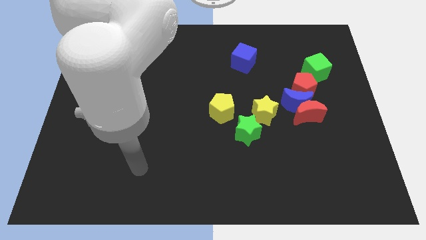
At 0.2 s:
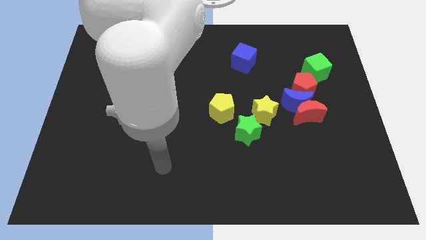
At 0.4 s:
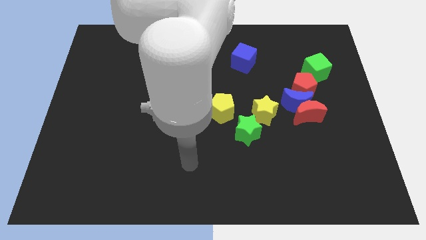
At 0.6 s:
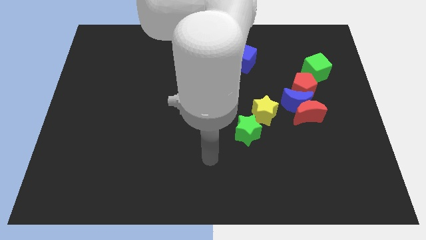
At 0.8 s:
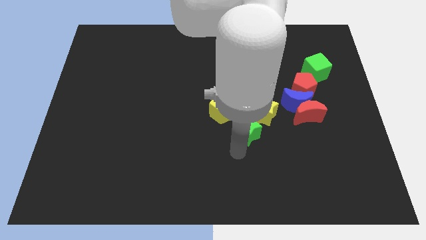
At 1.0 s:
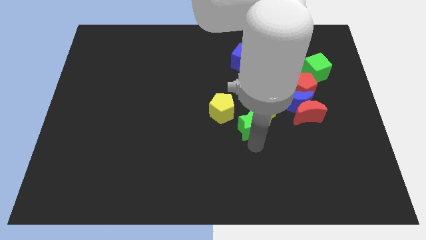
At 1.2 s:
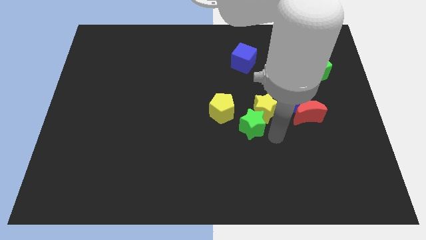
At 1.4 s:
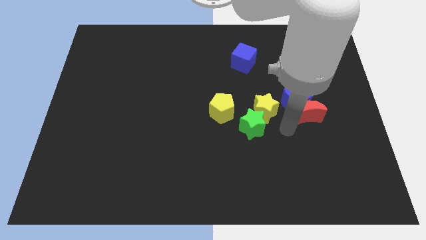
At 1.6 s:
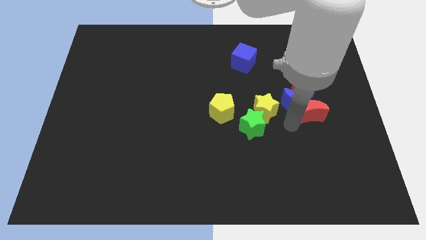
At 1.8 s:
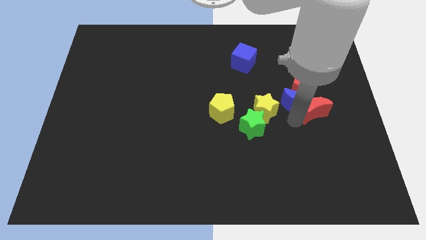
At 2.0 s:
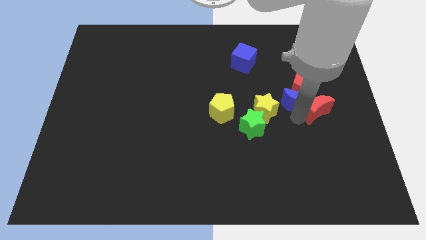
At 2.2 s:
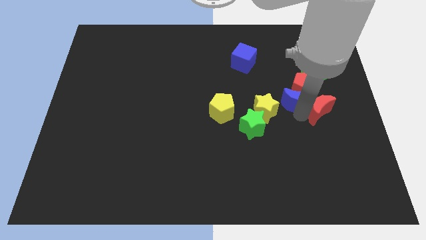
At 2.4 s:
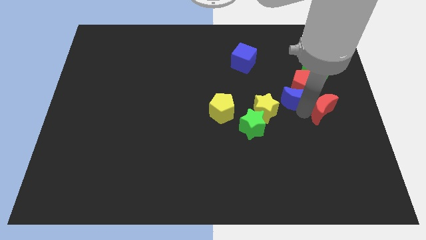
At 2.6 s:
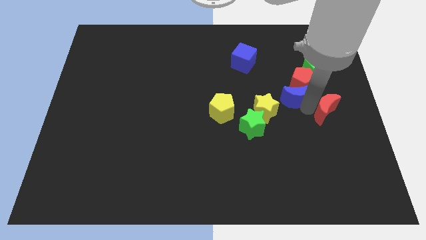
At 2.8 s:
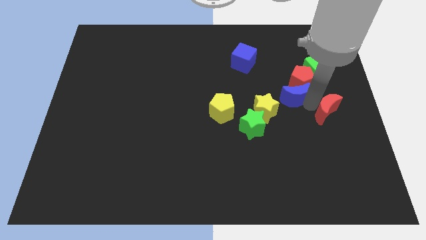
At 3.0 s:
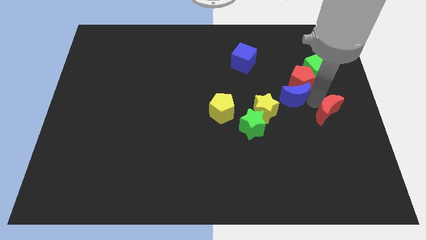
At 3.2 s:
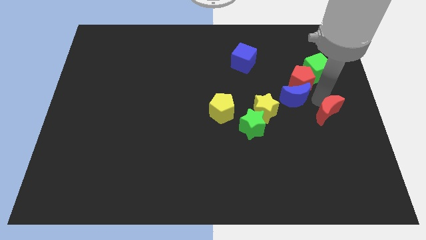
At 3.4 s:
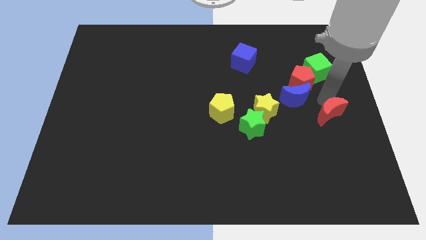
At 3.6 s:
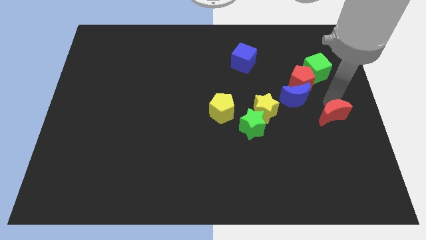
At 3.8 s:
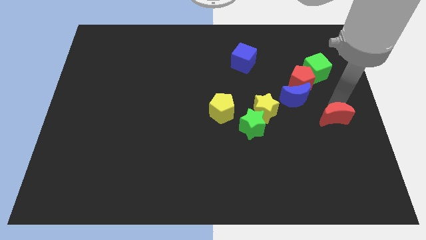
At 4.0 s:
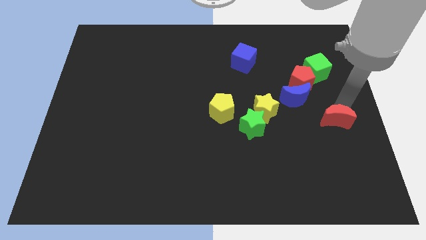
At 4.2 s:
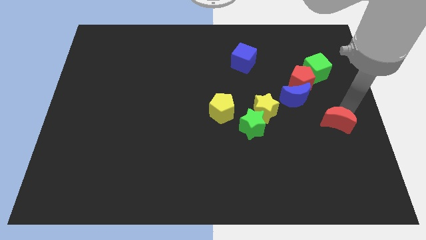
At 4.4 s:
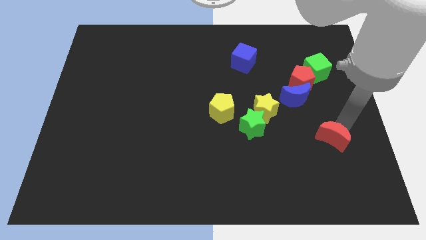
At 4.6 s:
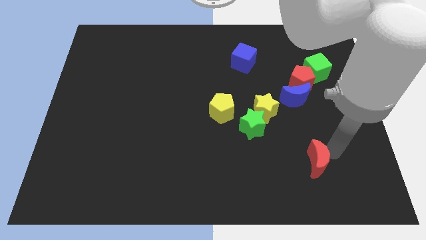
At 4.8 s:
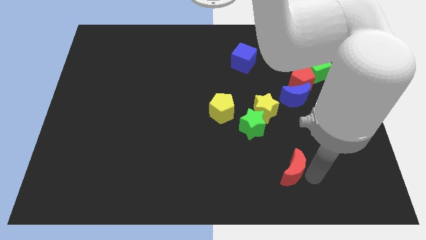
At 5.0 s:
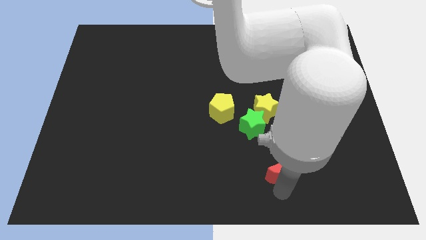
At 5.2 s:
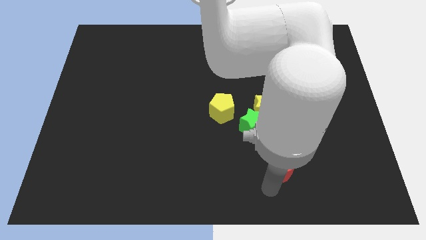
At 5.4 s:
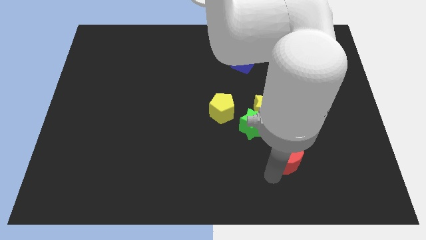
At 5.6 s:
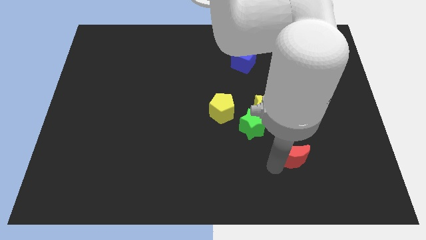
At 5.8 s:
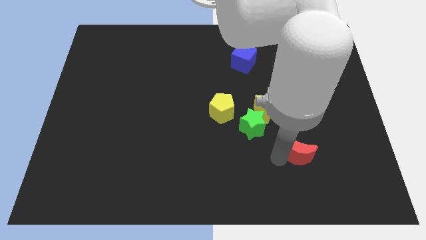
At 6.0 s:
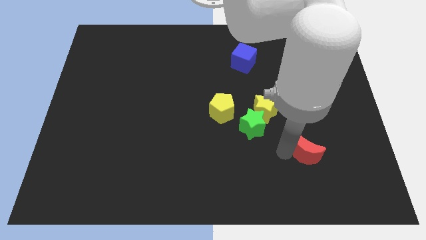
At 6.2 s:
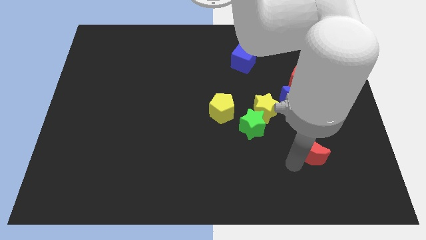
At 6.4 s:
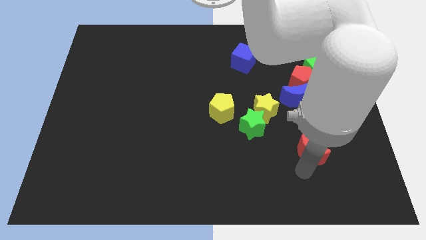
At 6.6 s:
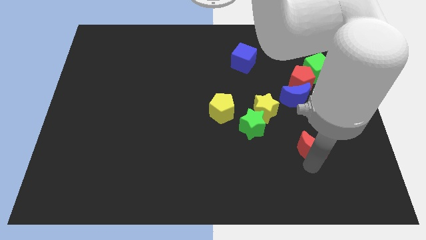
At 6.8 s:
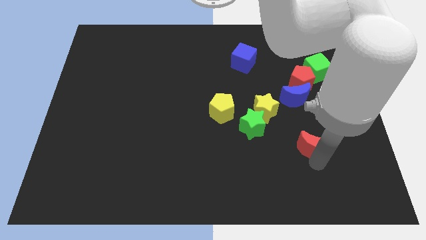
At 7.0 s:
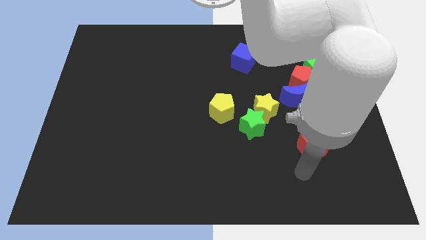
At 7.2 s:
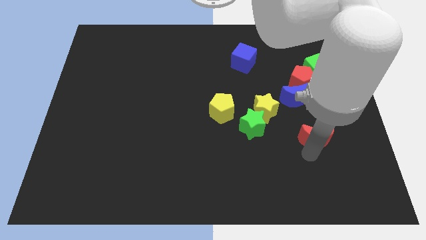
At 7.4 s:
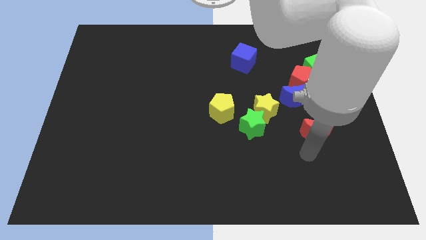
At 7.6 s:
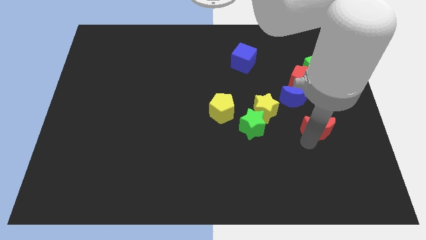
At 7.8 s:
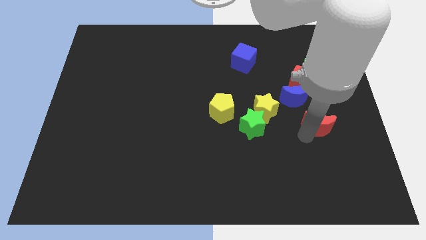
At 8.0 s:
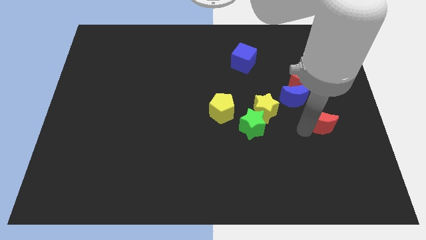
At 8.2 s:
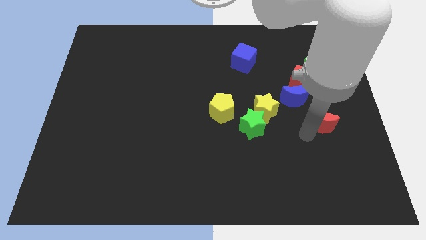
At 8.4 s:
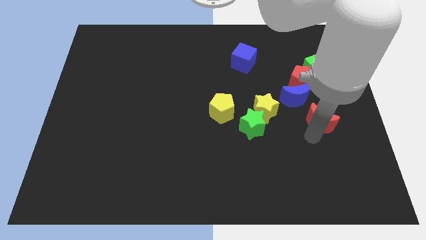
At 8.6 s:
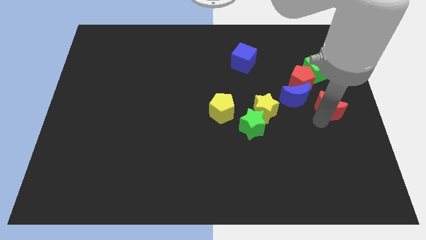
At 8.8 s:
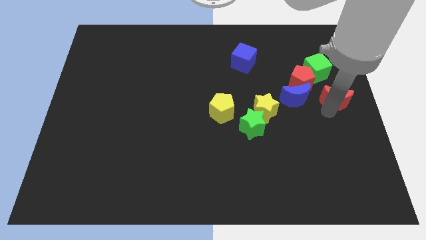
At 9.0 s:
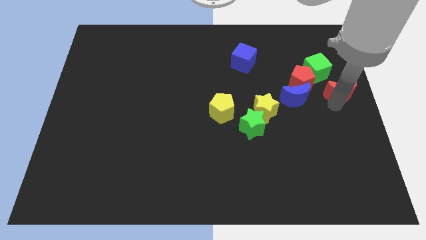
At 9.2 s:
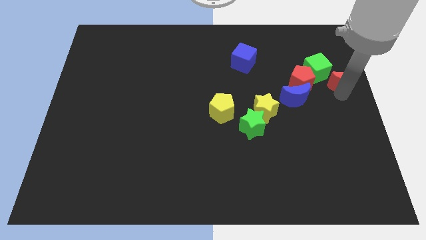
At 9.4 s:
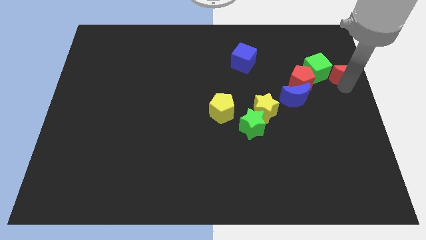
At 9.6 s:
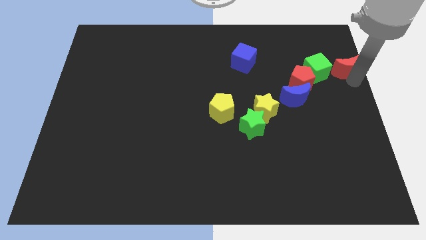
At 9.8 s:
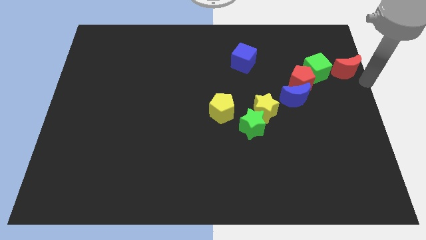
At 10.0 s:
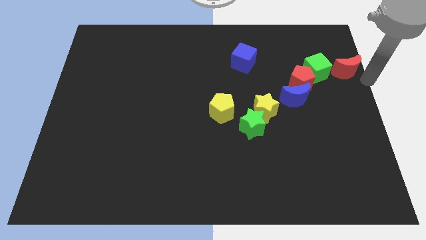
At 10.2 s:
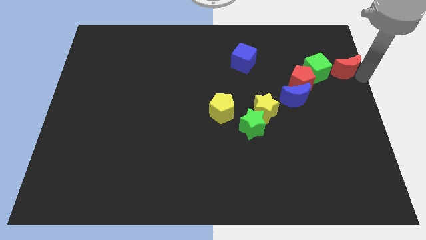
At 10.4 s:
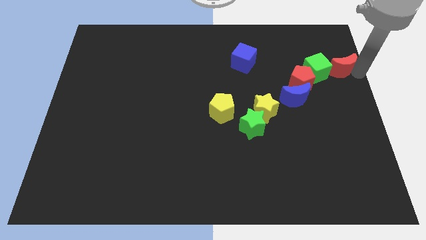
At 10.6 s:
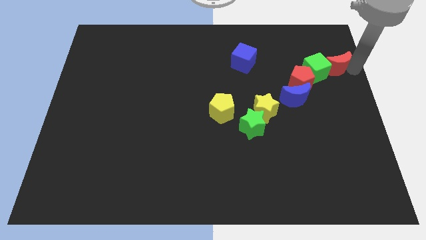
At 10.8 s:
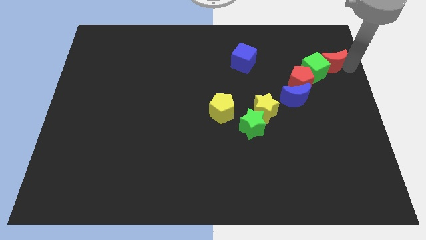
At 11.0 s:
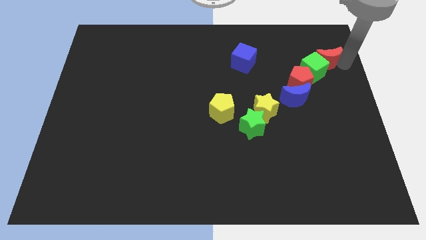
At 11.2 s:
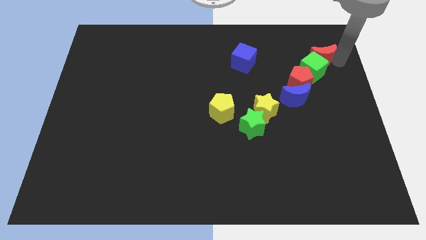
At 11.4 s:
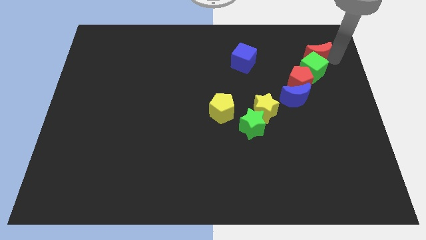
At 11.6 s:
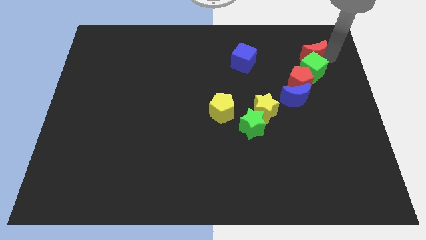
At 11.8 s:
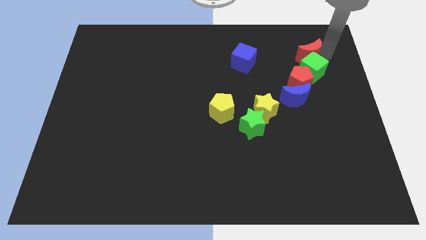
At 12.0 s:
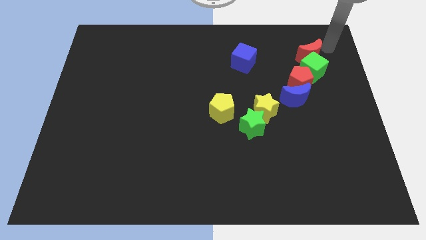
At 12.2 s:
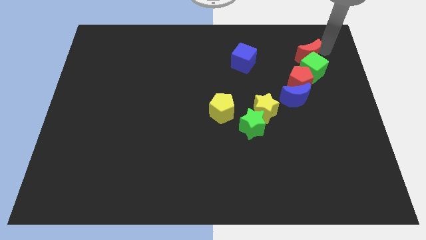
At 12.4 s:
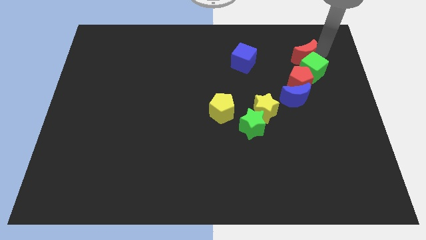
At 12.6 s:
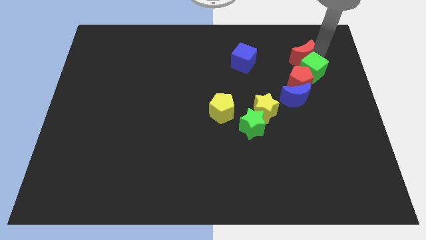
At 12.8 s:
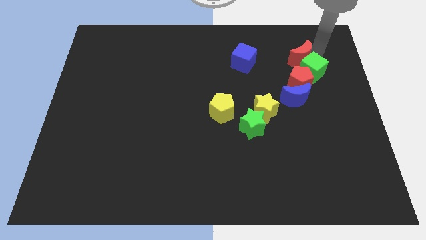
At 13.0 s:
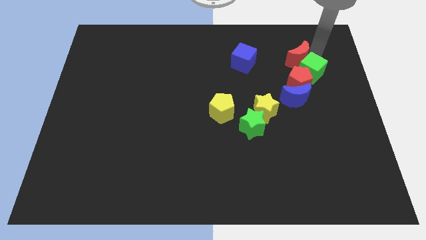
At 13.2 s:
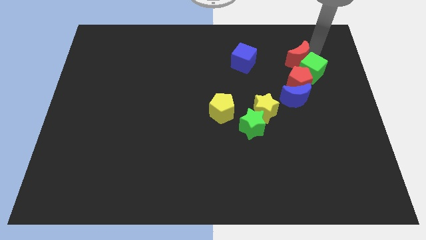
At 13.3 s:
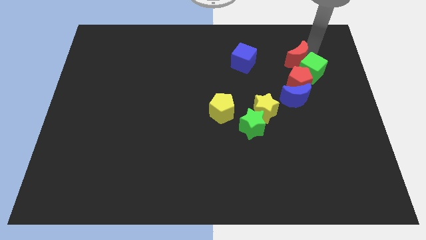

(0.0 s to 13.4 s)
slide the red moon to the left of the green cube
